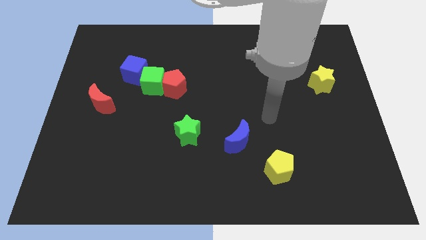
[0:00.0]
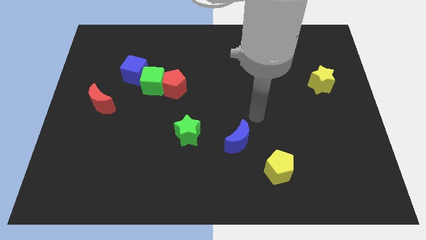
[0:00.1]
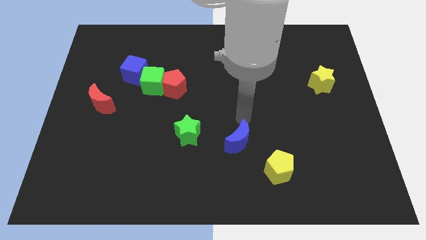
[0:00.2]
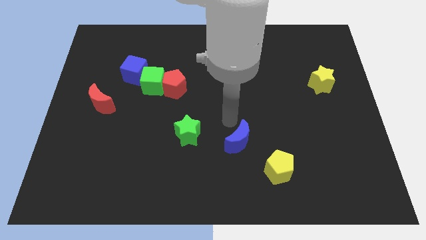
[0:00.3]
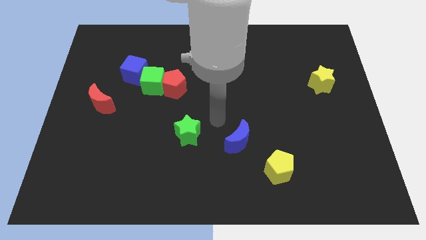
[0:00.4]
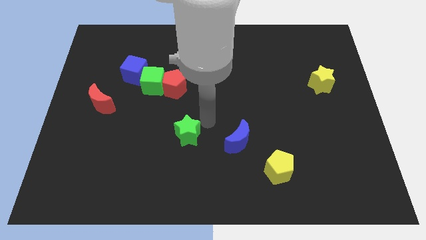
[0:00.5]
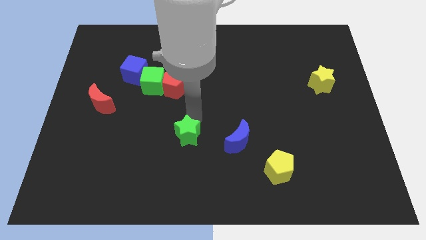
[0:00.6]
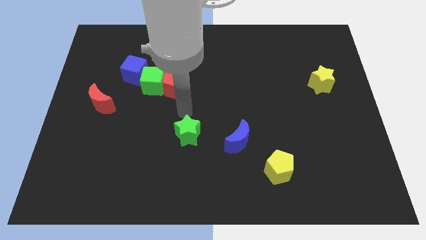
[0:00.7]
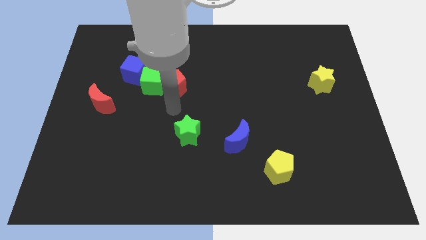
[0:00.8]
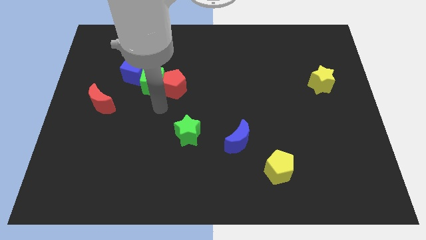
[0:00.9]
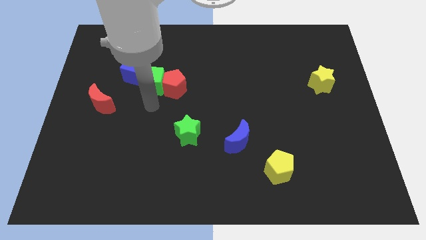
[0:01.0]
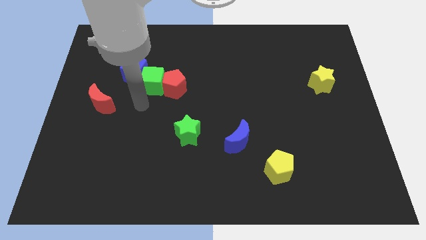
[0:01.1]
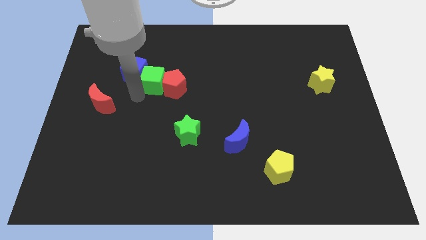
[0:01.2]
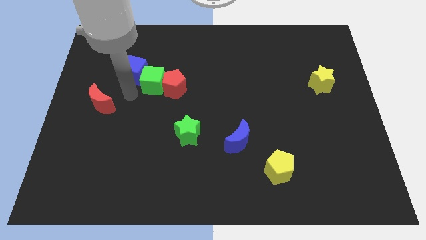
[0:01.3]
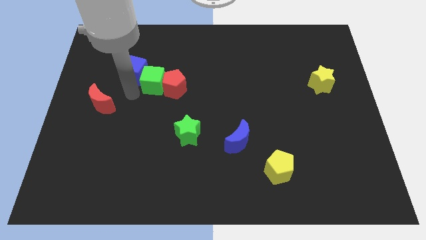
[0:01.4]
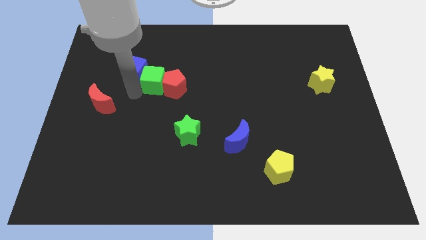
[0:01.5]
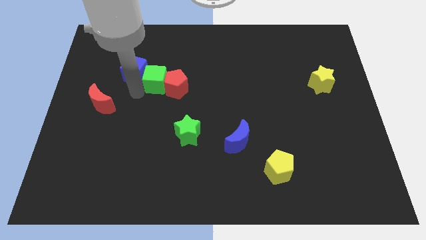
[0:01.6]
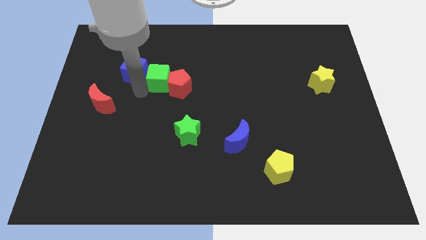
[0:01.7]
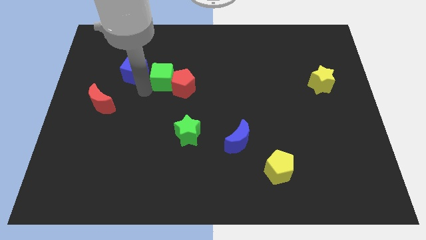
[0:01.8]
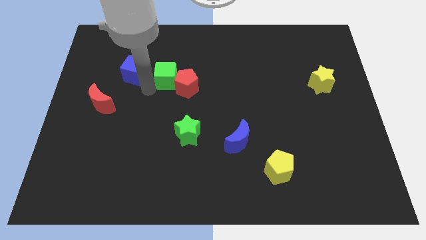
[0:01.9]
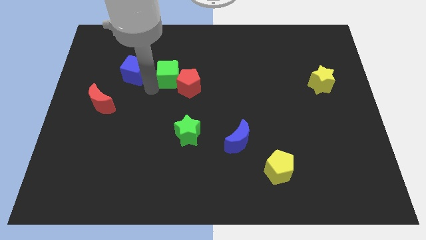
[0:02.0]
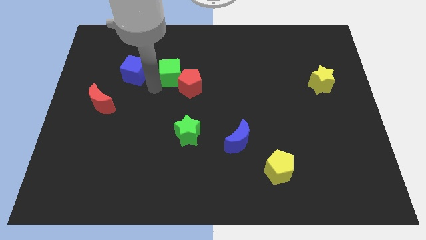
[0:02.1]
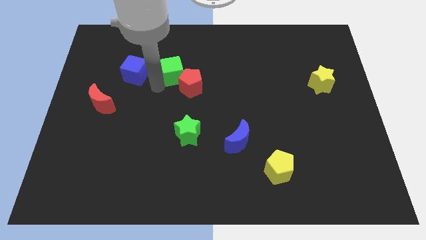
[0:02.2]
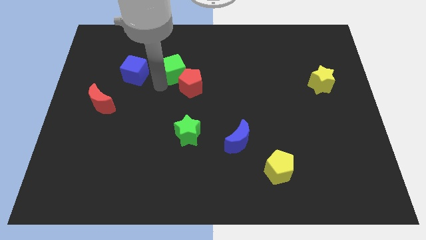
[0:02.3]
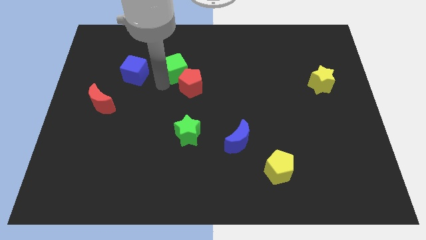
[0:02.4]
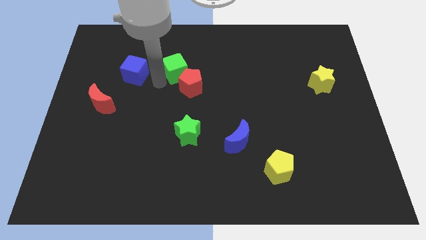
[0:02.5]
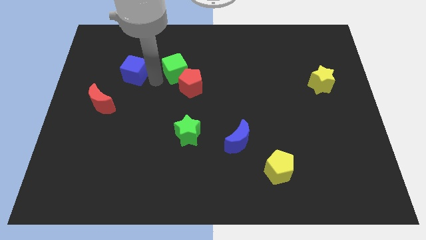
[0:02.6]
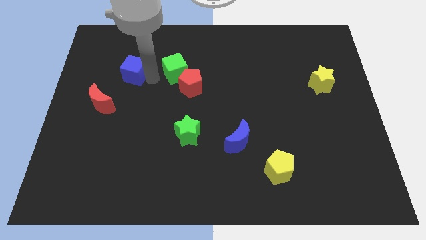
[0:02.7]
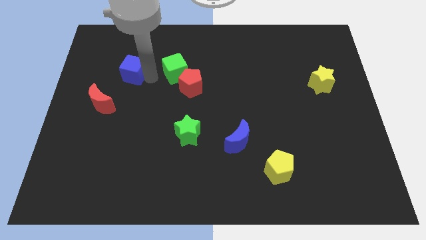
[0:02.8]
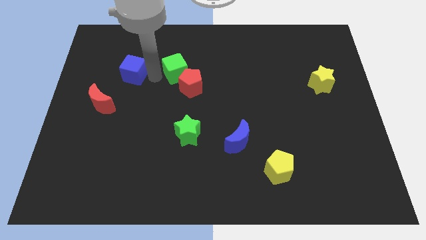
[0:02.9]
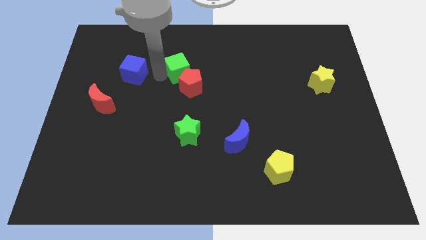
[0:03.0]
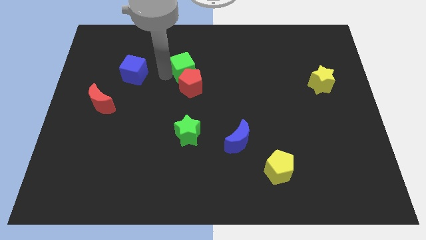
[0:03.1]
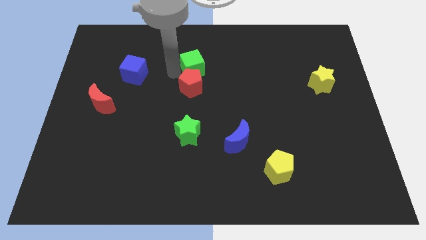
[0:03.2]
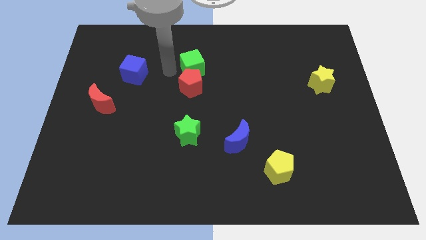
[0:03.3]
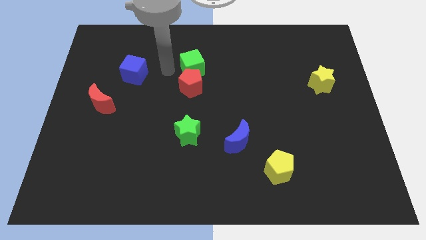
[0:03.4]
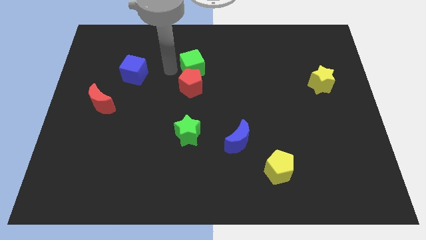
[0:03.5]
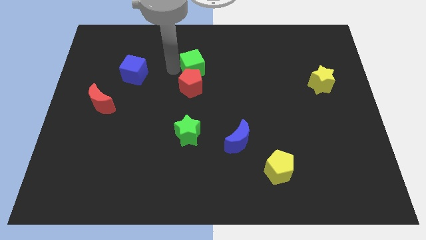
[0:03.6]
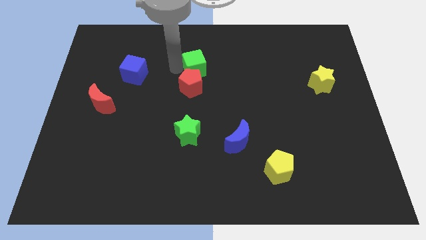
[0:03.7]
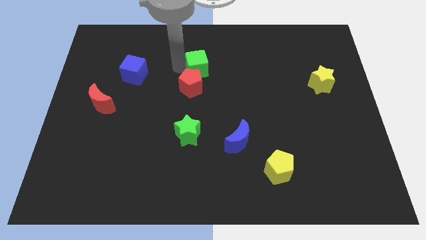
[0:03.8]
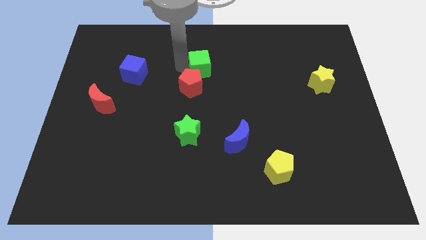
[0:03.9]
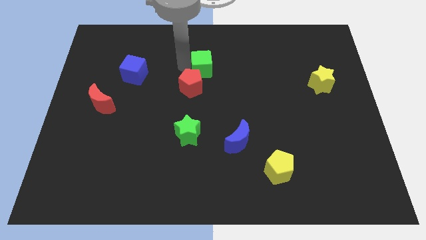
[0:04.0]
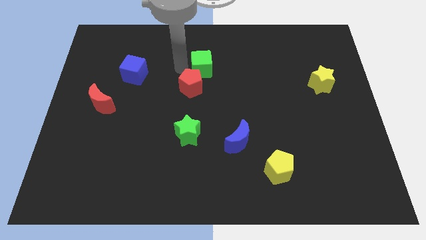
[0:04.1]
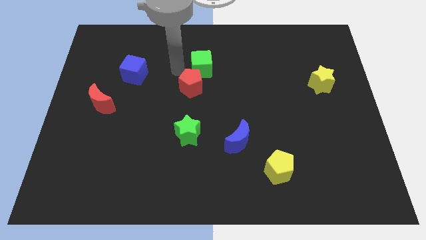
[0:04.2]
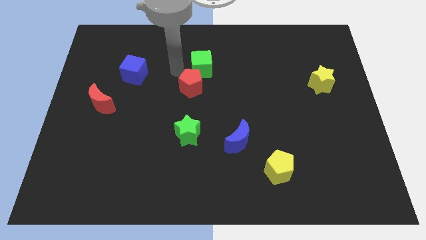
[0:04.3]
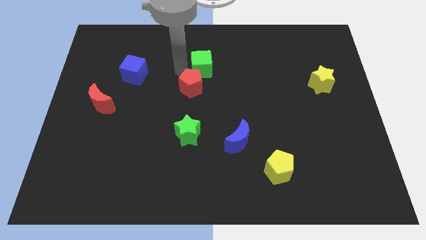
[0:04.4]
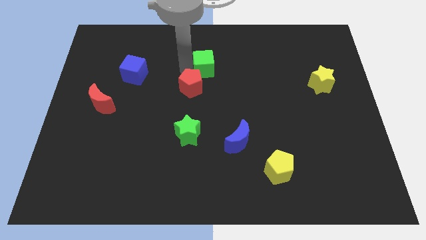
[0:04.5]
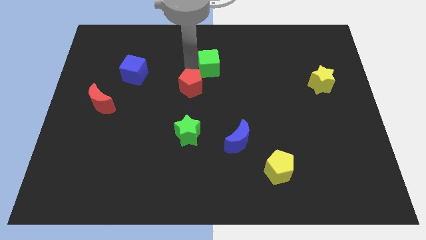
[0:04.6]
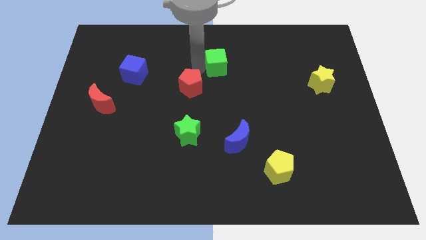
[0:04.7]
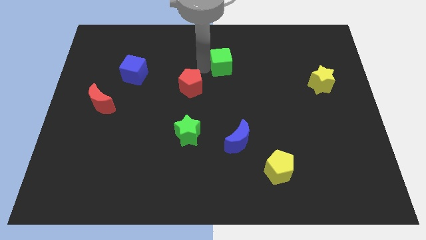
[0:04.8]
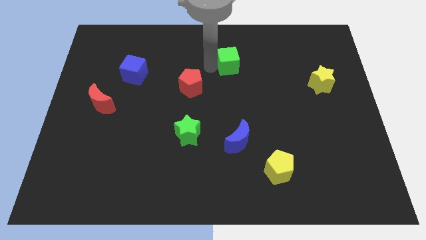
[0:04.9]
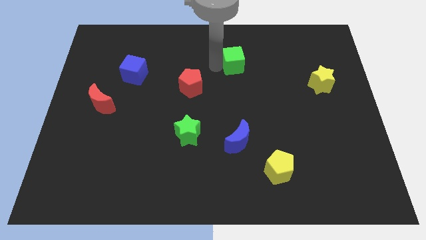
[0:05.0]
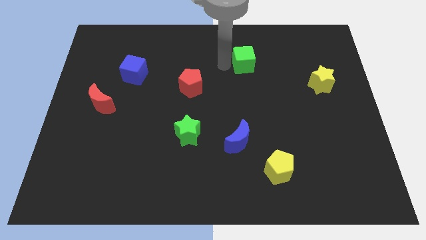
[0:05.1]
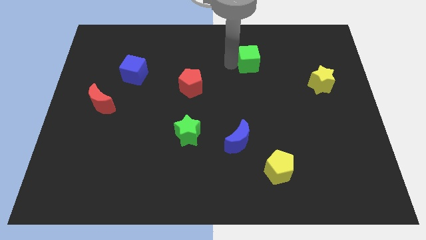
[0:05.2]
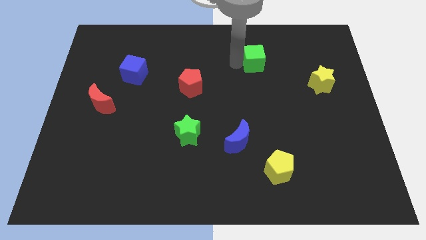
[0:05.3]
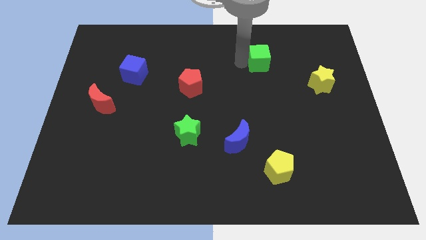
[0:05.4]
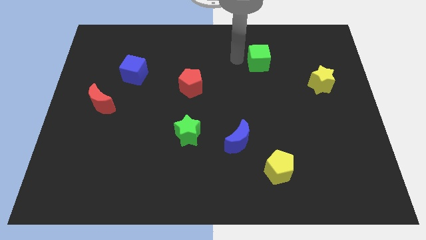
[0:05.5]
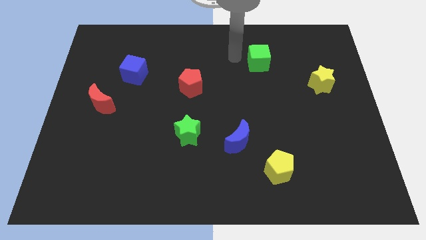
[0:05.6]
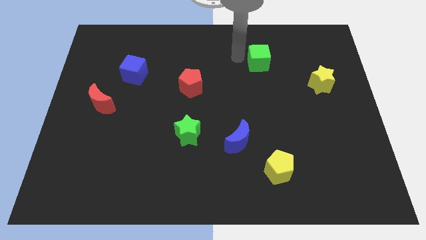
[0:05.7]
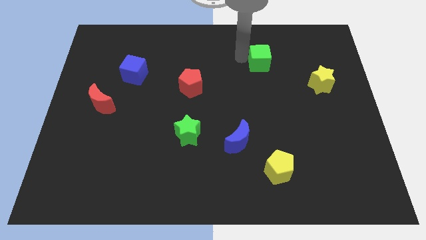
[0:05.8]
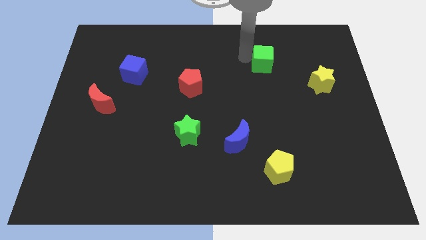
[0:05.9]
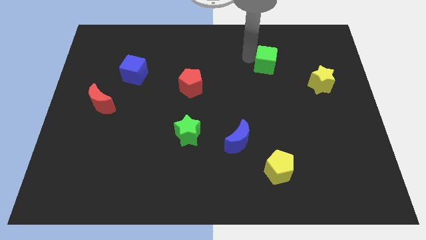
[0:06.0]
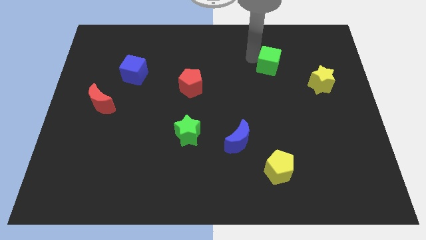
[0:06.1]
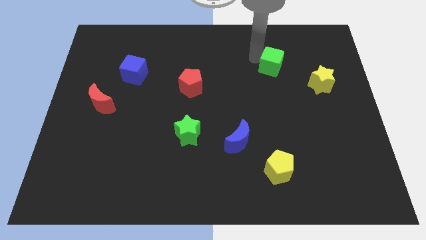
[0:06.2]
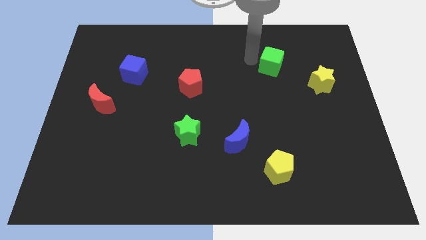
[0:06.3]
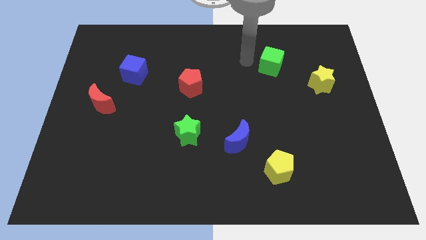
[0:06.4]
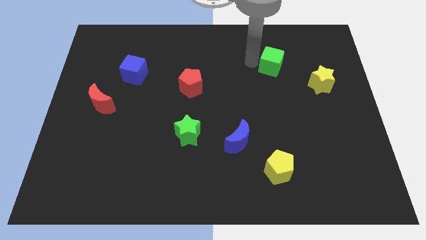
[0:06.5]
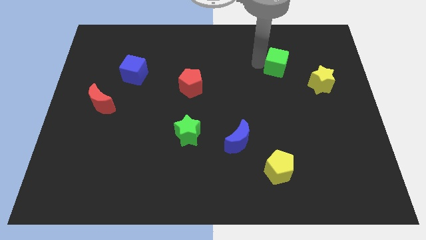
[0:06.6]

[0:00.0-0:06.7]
push the green cube to the top left of the yellow star
